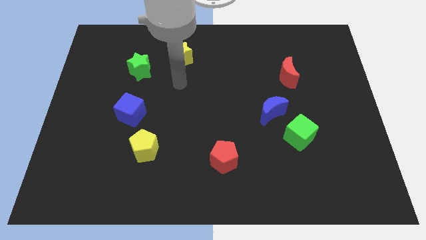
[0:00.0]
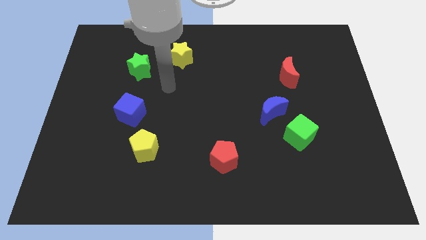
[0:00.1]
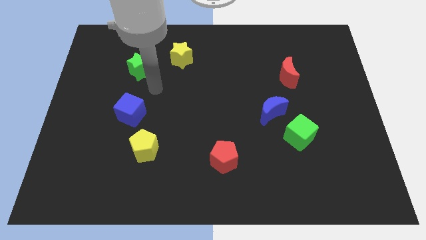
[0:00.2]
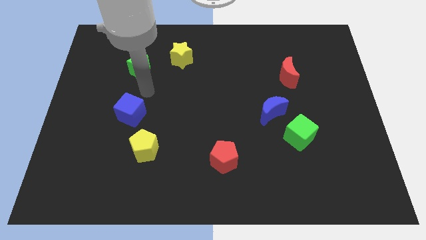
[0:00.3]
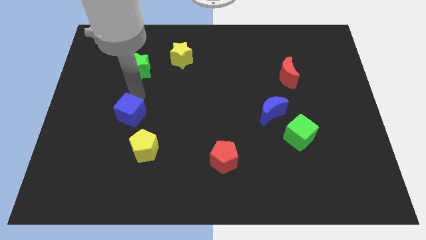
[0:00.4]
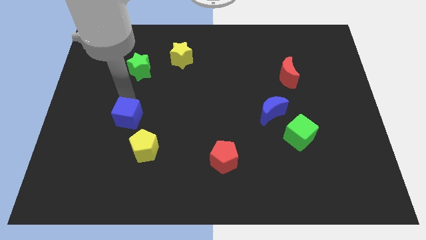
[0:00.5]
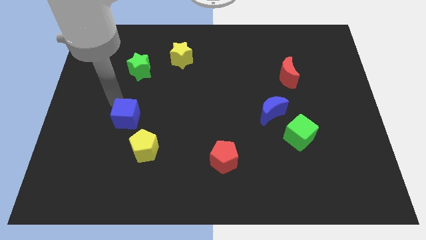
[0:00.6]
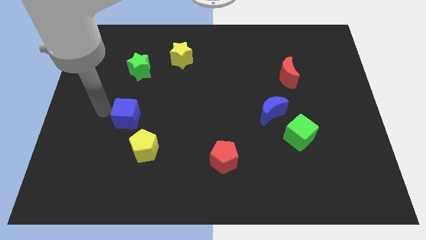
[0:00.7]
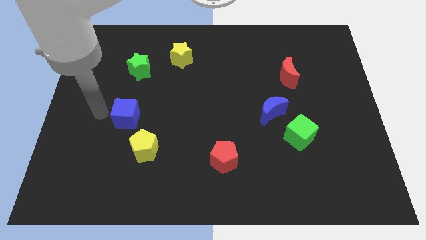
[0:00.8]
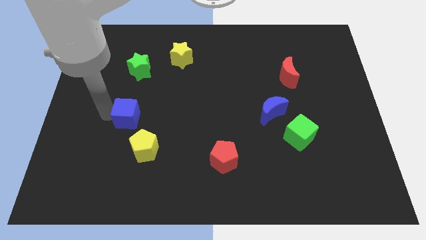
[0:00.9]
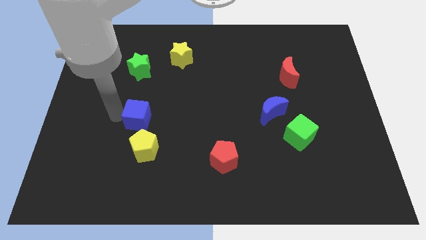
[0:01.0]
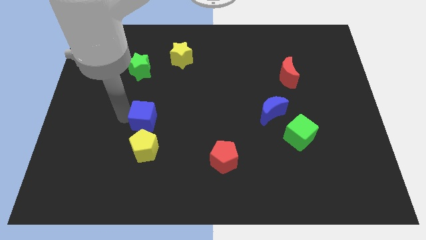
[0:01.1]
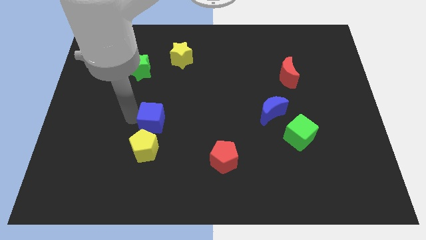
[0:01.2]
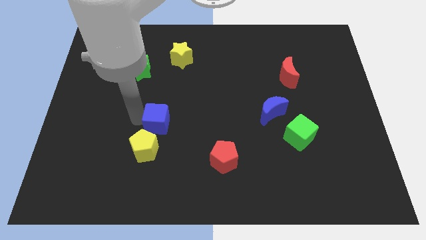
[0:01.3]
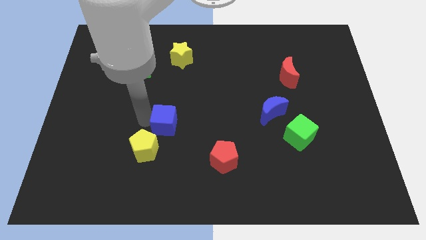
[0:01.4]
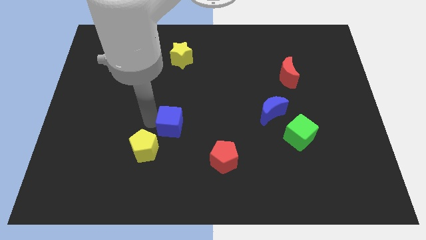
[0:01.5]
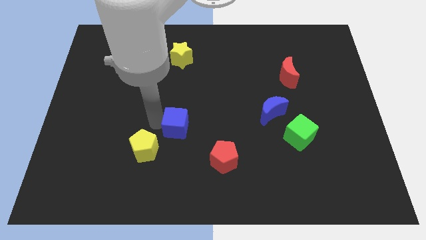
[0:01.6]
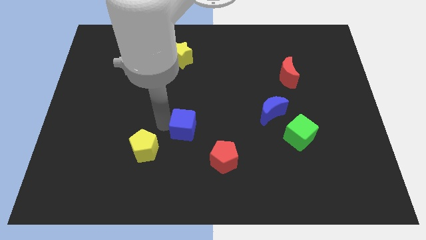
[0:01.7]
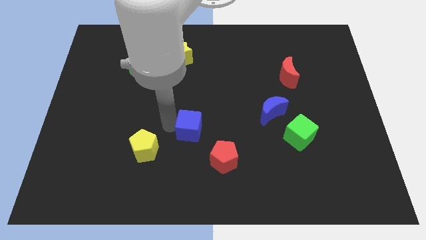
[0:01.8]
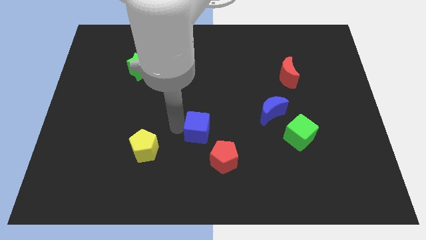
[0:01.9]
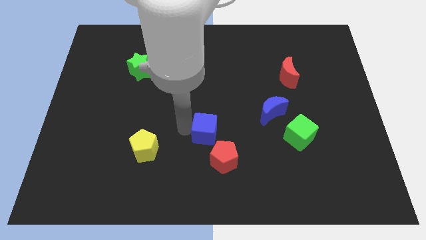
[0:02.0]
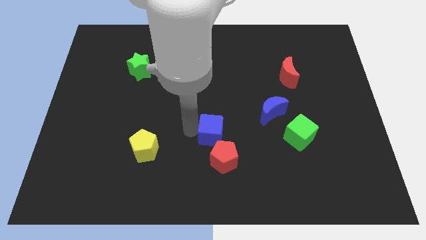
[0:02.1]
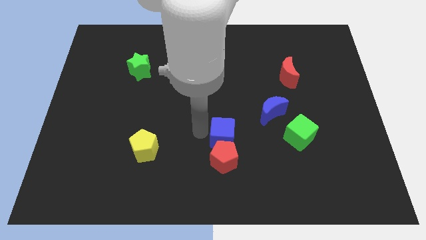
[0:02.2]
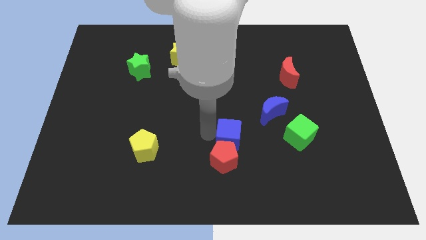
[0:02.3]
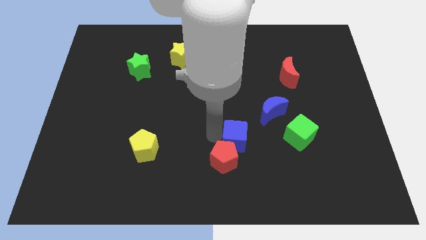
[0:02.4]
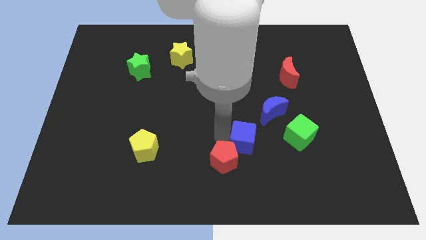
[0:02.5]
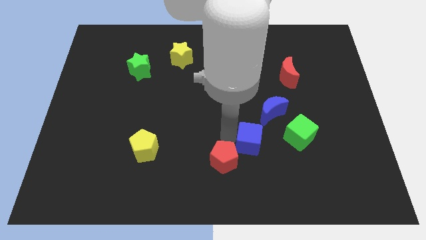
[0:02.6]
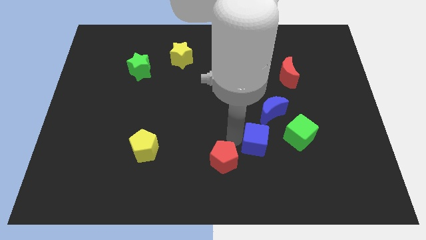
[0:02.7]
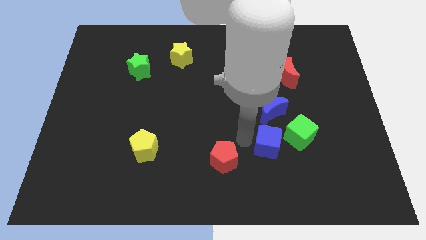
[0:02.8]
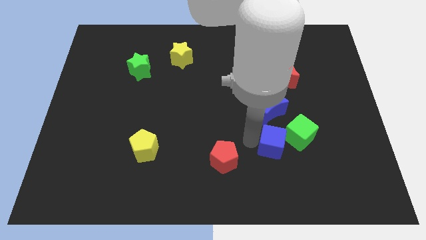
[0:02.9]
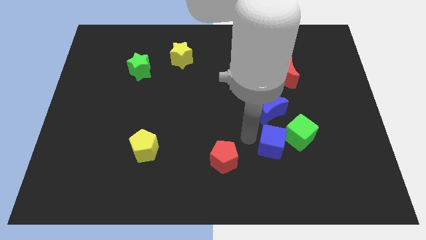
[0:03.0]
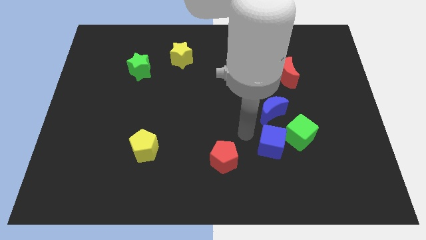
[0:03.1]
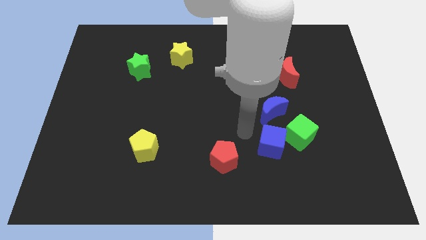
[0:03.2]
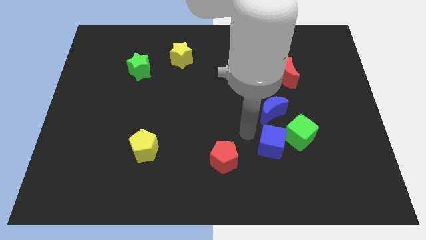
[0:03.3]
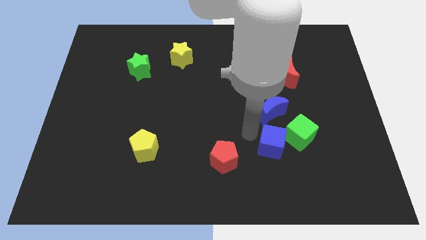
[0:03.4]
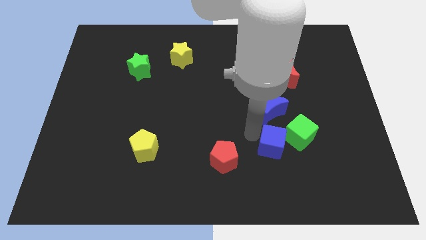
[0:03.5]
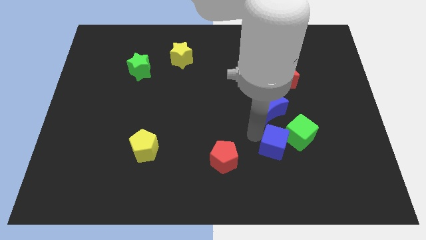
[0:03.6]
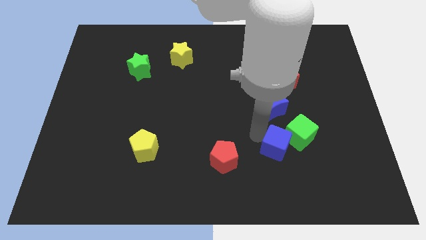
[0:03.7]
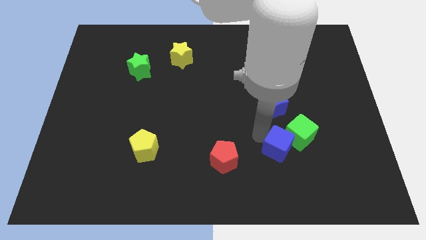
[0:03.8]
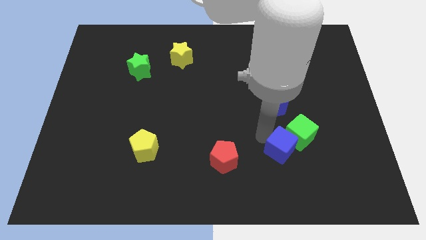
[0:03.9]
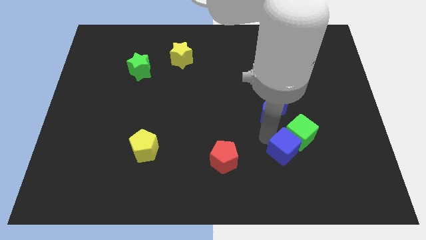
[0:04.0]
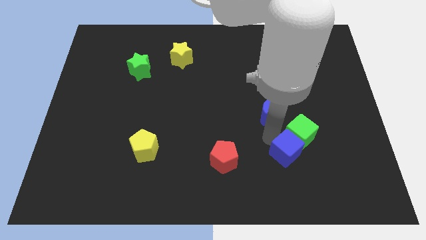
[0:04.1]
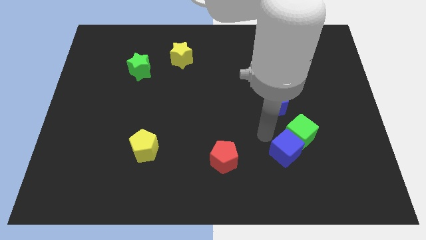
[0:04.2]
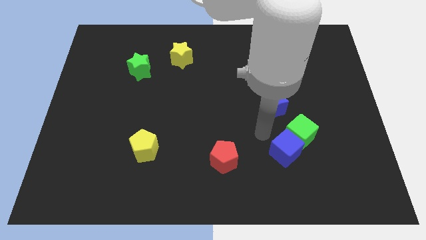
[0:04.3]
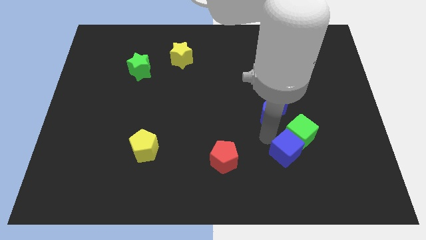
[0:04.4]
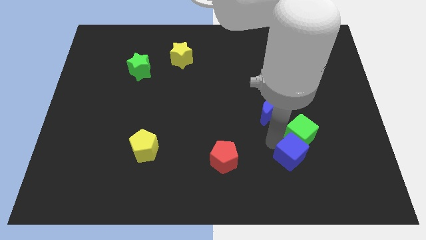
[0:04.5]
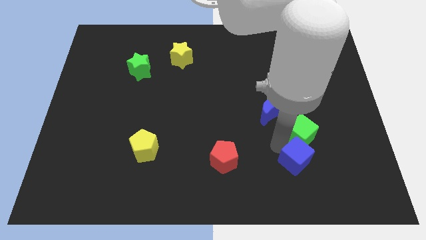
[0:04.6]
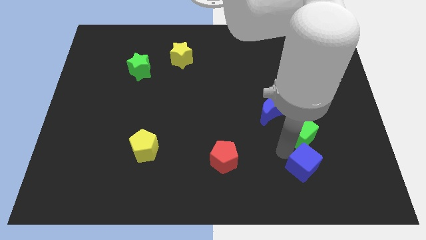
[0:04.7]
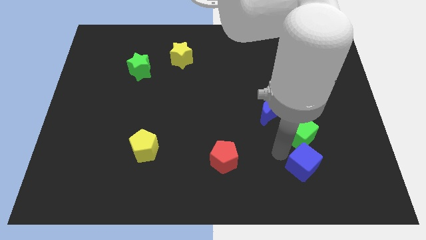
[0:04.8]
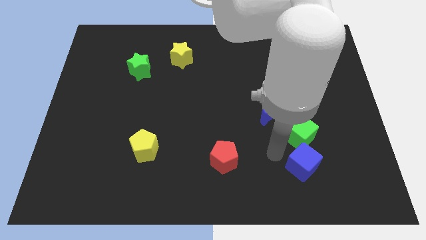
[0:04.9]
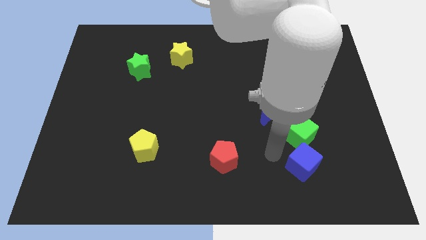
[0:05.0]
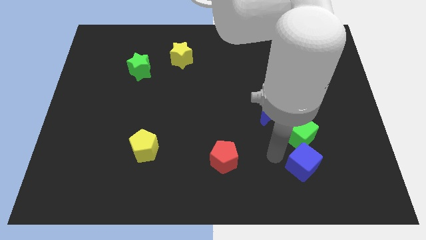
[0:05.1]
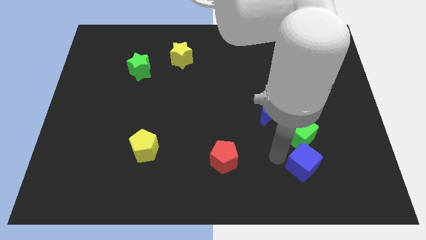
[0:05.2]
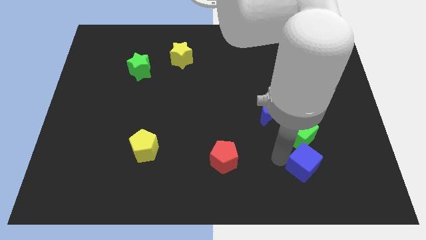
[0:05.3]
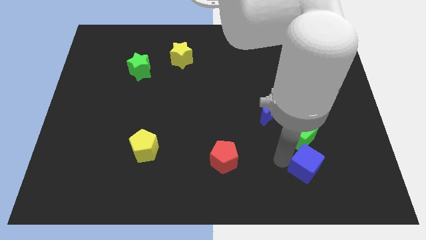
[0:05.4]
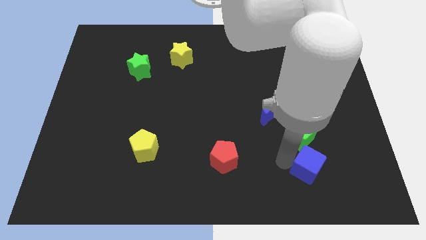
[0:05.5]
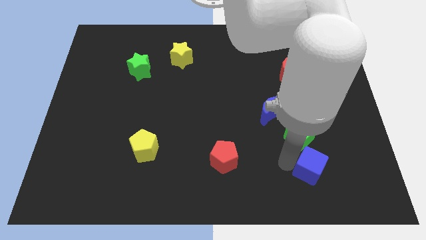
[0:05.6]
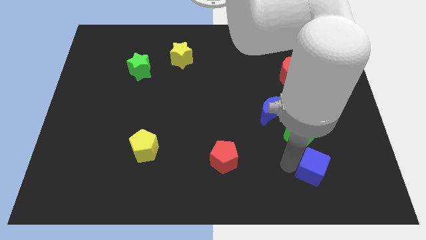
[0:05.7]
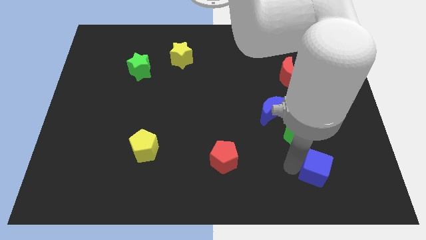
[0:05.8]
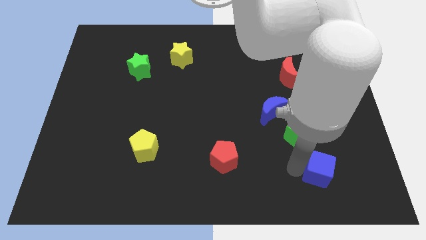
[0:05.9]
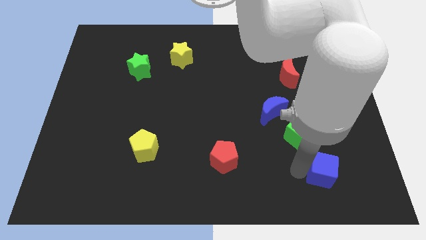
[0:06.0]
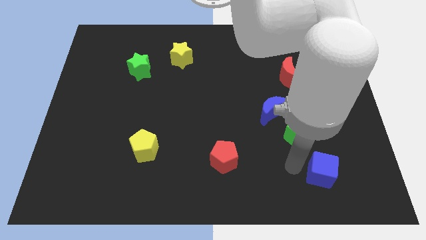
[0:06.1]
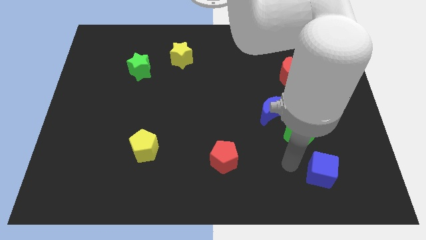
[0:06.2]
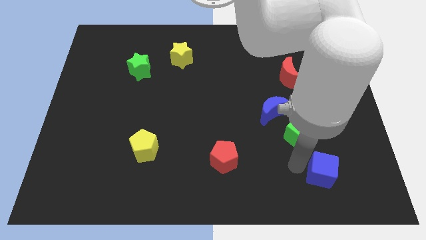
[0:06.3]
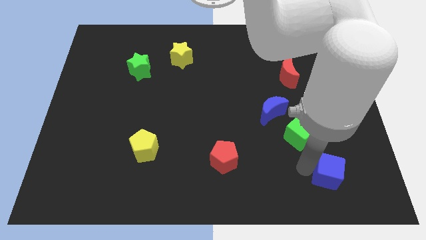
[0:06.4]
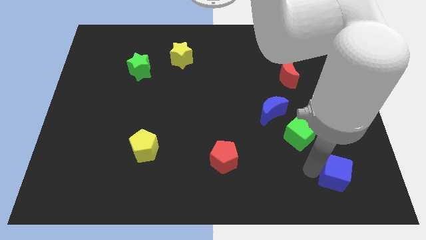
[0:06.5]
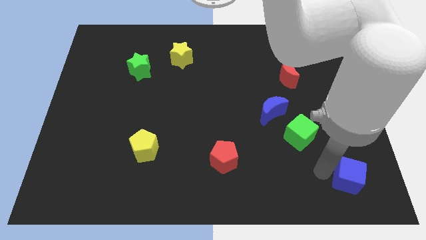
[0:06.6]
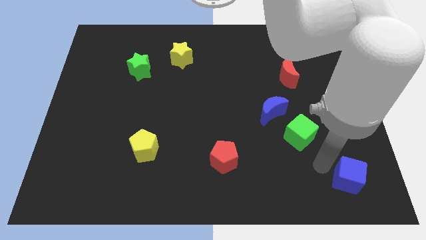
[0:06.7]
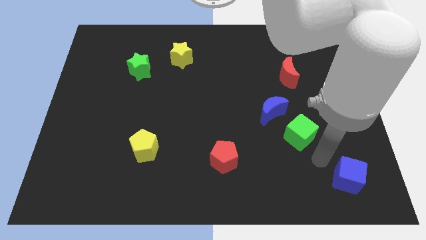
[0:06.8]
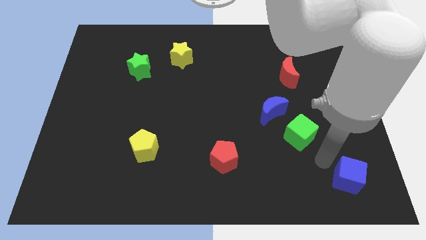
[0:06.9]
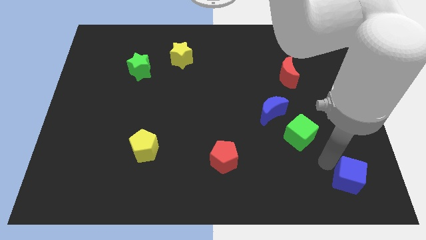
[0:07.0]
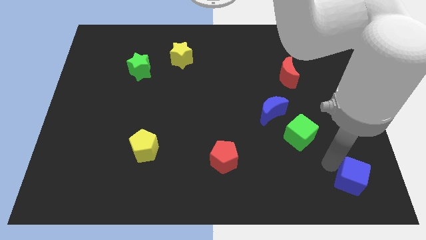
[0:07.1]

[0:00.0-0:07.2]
slide the blue cube to the bottom right

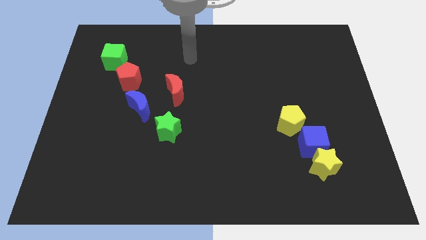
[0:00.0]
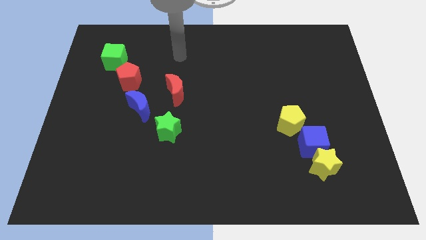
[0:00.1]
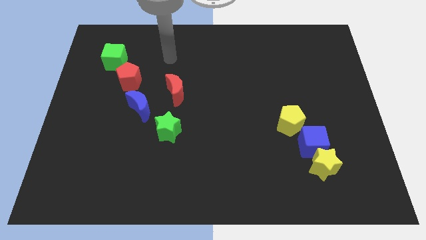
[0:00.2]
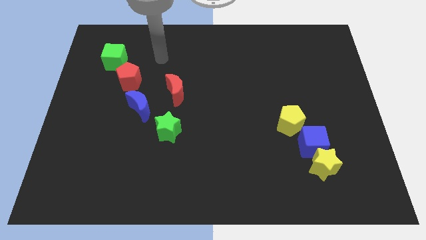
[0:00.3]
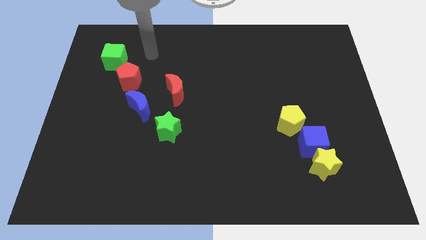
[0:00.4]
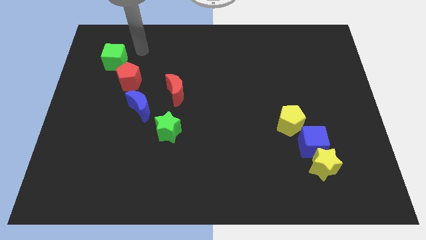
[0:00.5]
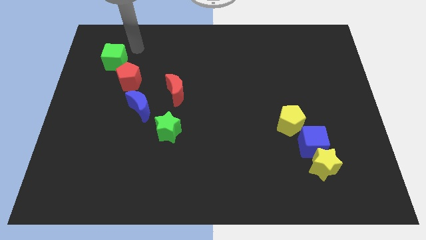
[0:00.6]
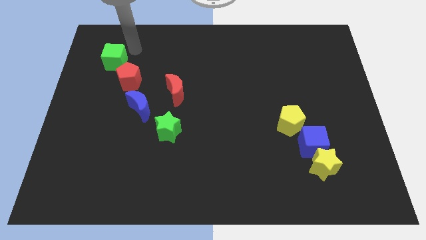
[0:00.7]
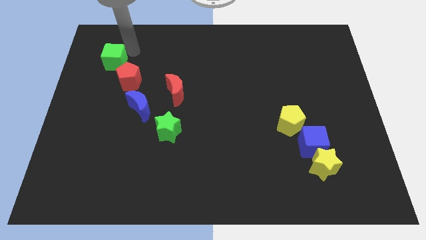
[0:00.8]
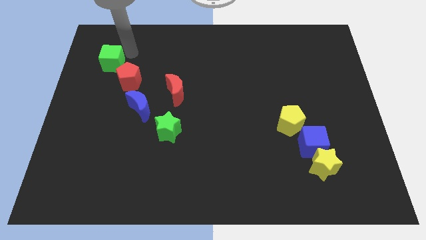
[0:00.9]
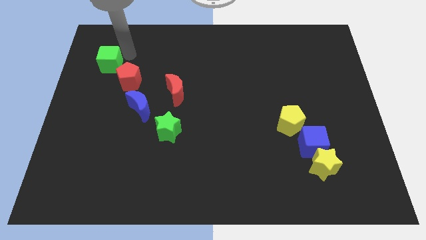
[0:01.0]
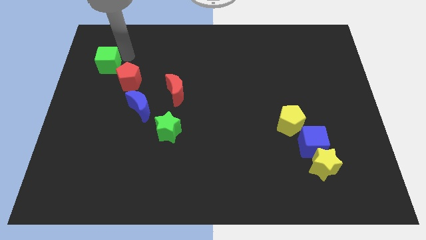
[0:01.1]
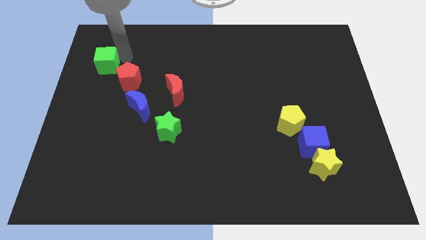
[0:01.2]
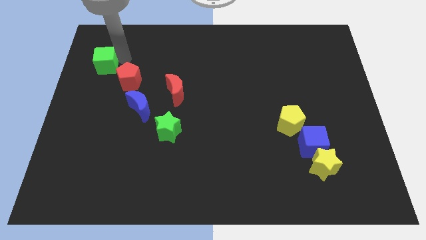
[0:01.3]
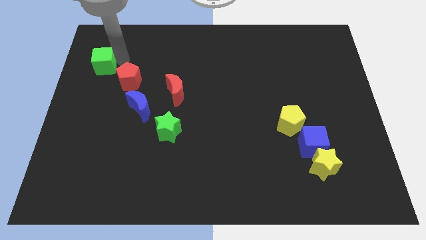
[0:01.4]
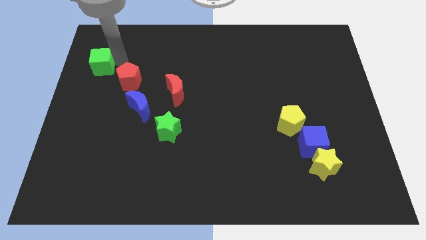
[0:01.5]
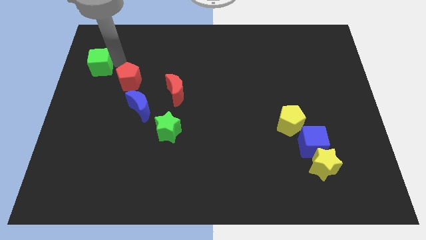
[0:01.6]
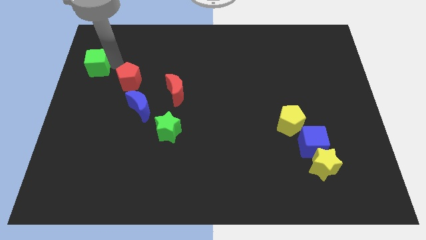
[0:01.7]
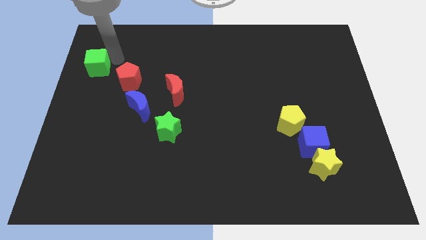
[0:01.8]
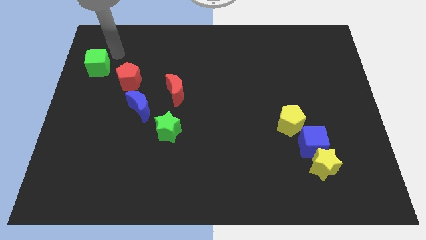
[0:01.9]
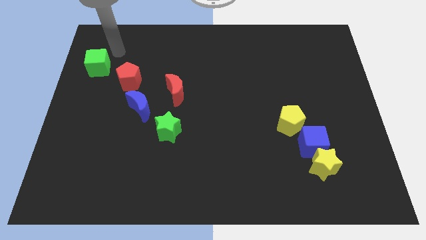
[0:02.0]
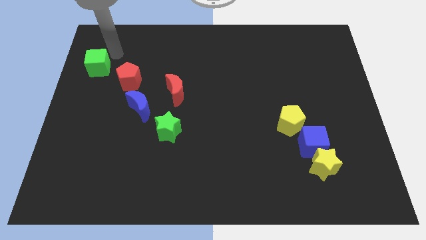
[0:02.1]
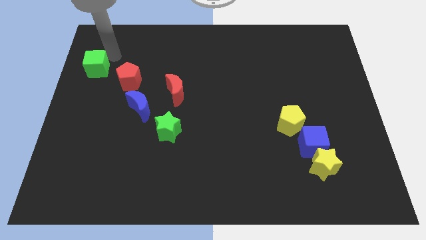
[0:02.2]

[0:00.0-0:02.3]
slide the green cube to the left side
